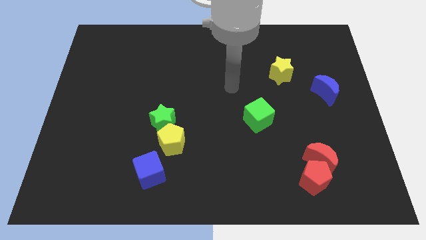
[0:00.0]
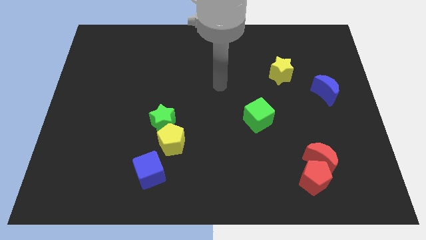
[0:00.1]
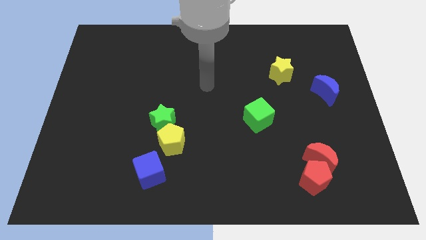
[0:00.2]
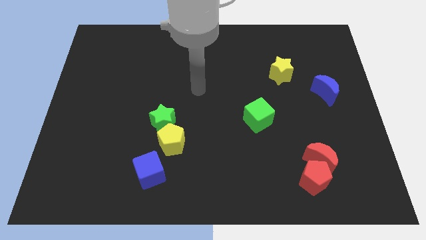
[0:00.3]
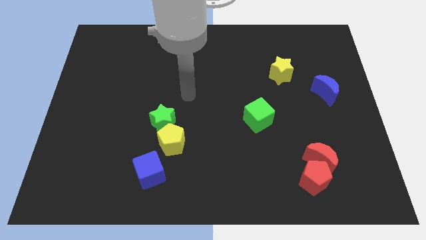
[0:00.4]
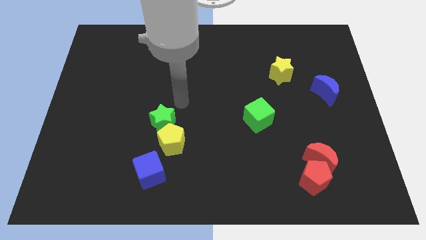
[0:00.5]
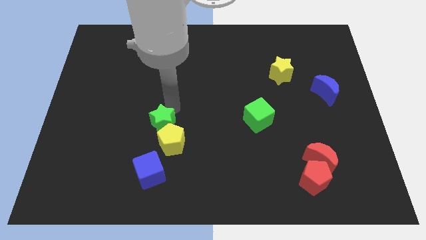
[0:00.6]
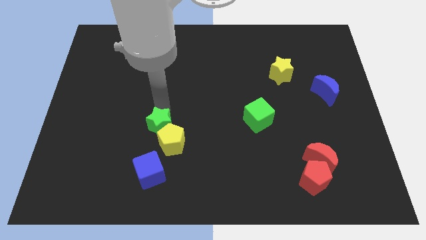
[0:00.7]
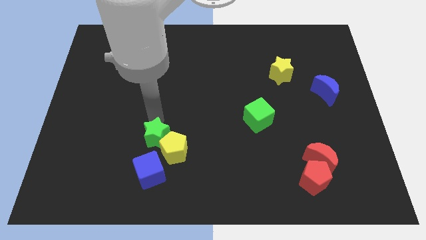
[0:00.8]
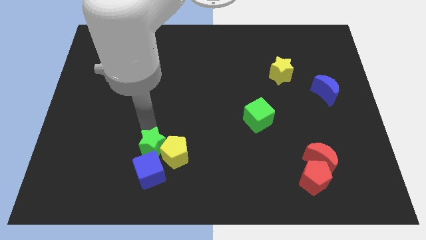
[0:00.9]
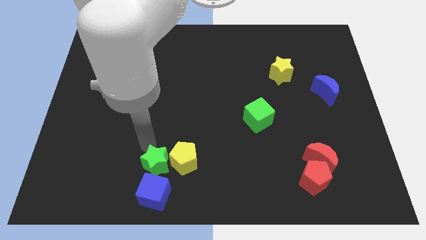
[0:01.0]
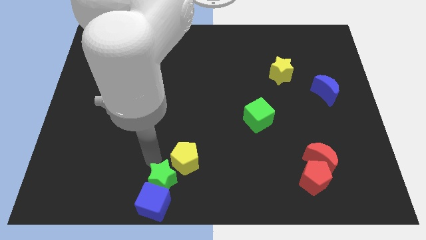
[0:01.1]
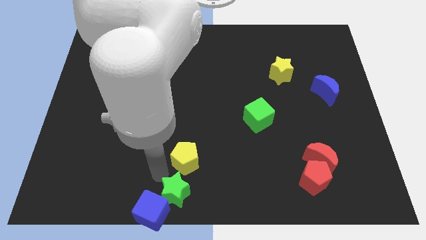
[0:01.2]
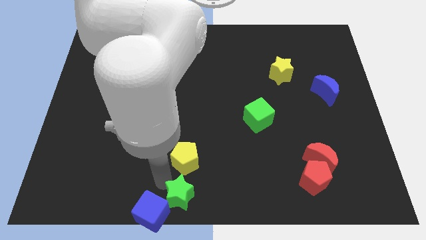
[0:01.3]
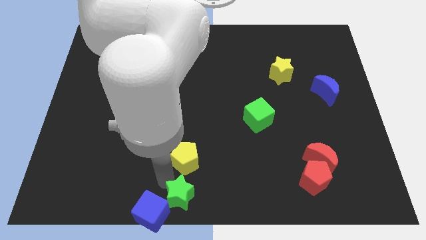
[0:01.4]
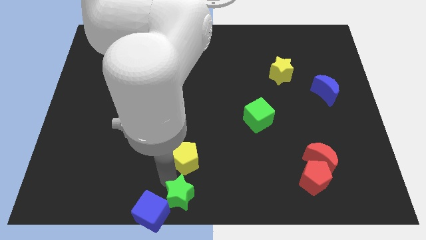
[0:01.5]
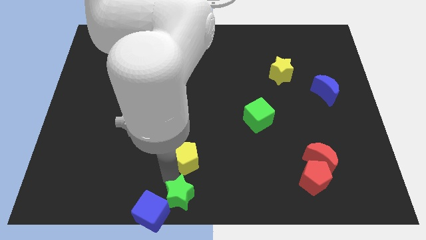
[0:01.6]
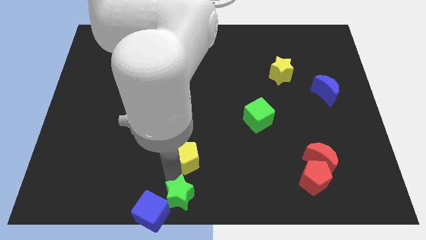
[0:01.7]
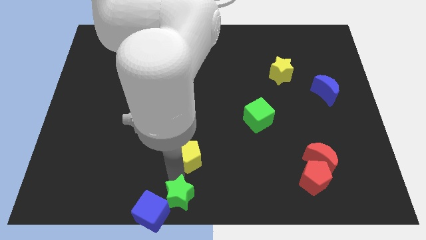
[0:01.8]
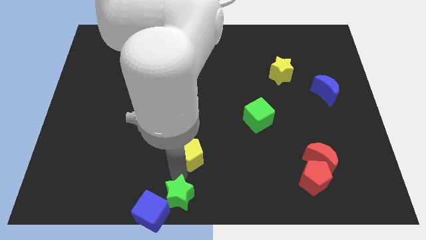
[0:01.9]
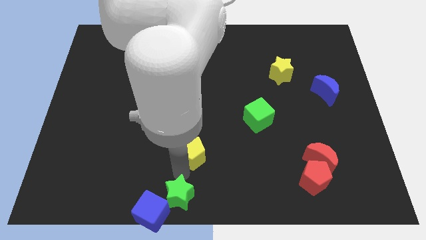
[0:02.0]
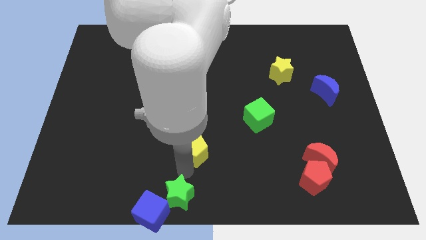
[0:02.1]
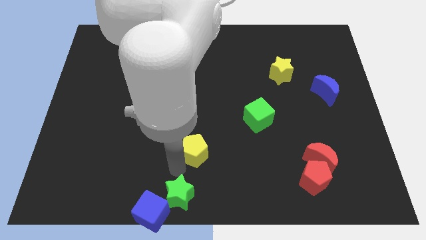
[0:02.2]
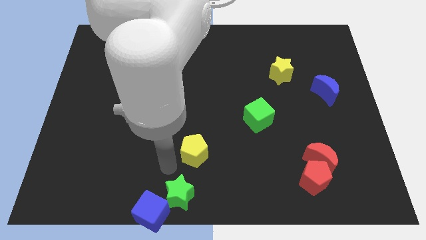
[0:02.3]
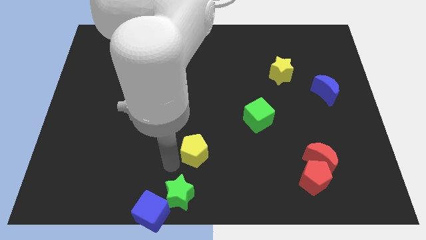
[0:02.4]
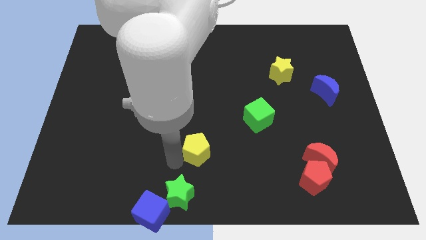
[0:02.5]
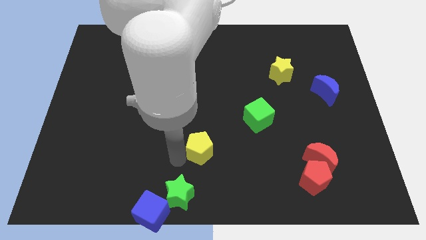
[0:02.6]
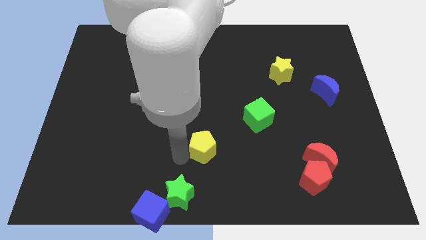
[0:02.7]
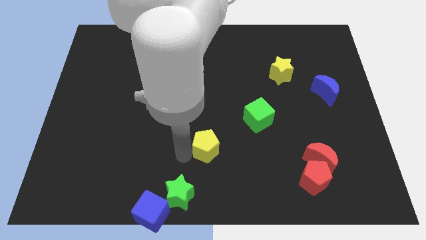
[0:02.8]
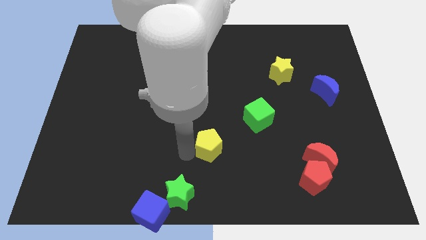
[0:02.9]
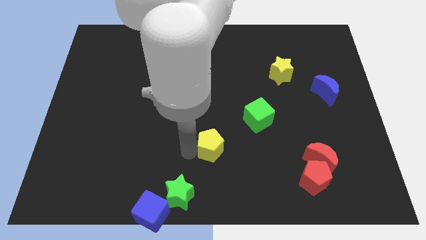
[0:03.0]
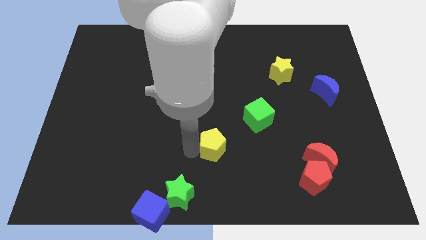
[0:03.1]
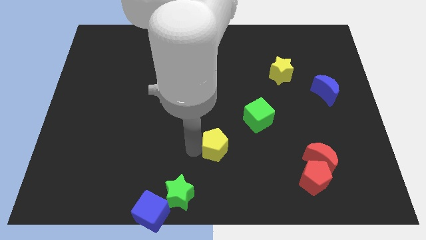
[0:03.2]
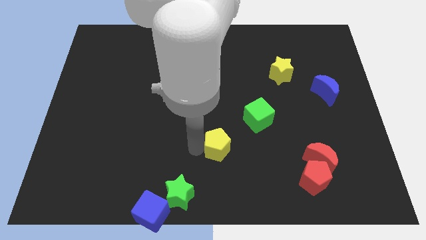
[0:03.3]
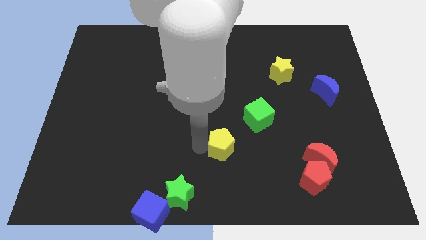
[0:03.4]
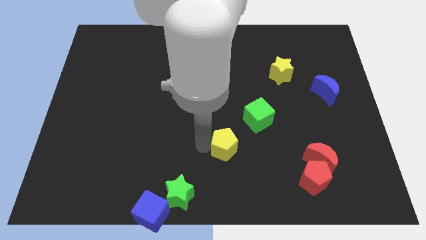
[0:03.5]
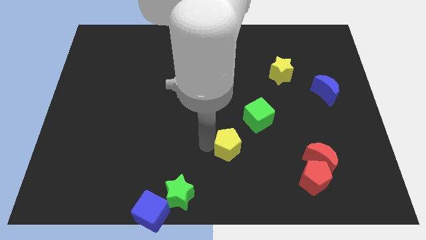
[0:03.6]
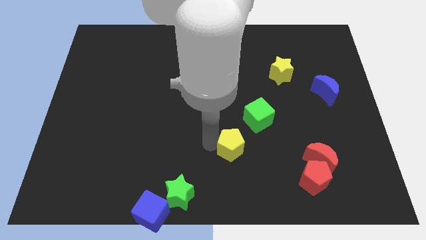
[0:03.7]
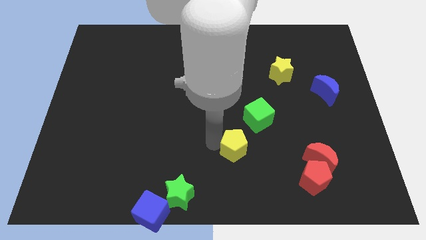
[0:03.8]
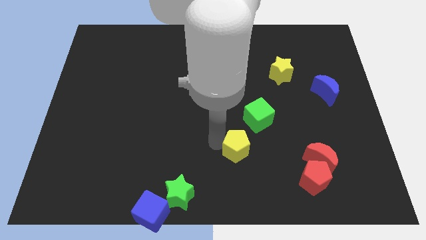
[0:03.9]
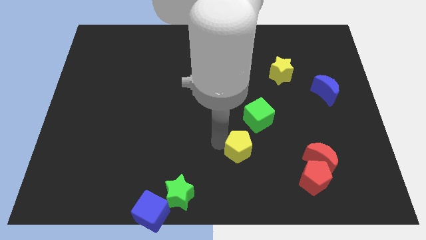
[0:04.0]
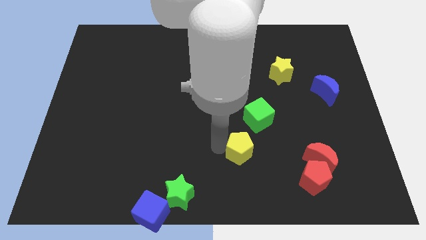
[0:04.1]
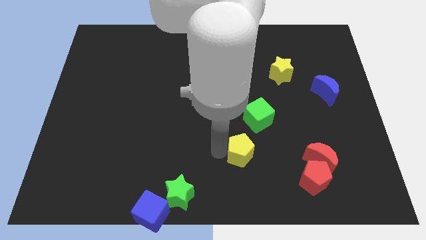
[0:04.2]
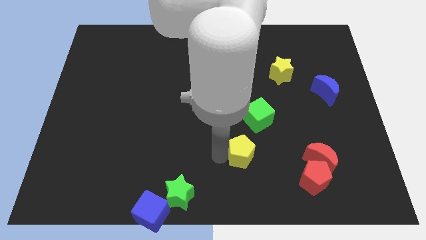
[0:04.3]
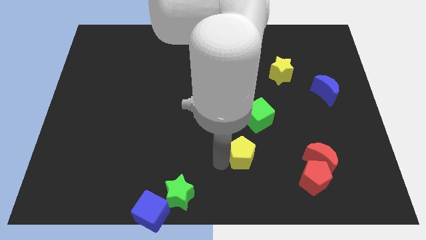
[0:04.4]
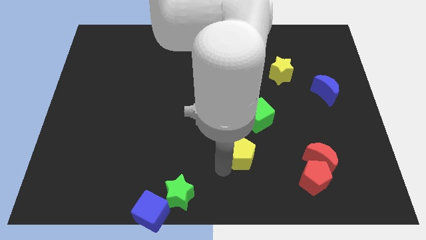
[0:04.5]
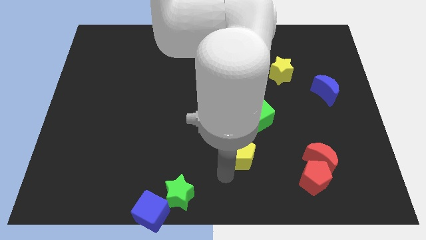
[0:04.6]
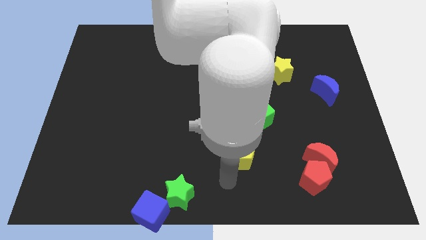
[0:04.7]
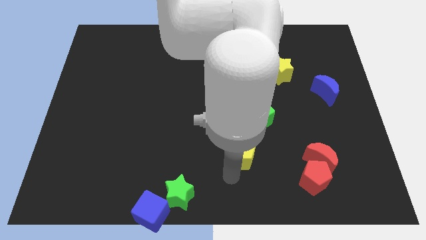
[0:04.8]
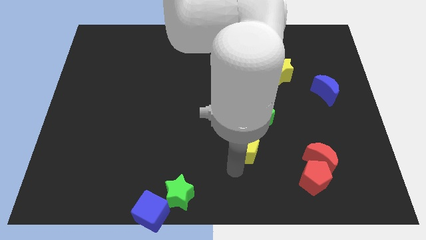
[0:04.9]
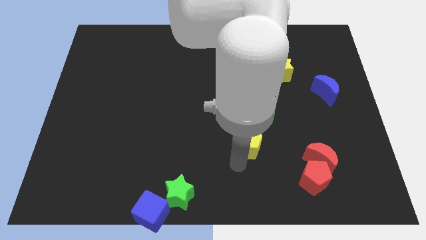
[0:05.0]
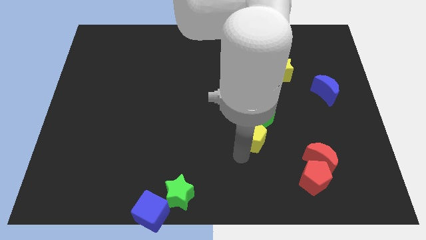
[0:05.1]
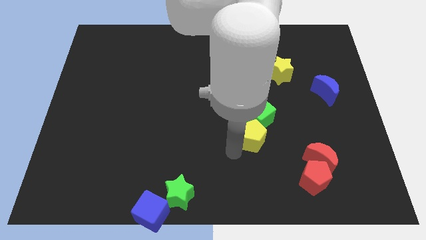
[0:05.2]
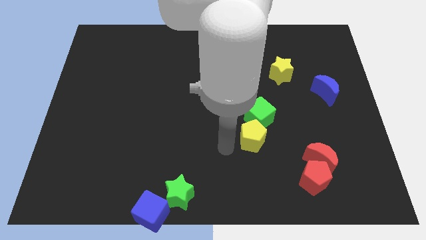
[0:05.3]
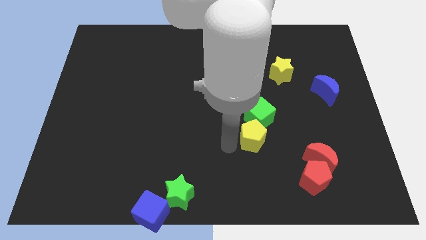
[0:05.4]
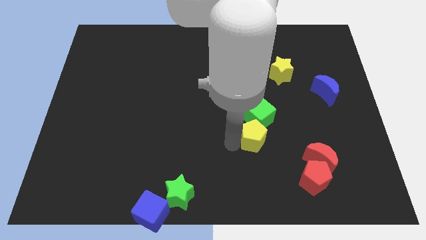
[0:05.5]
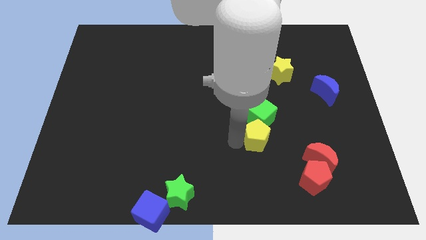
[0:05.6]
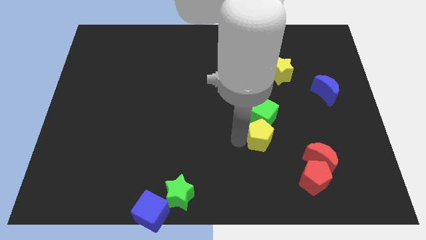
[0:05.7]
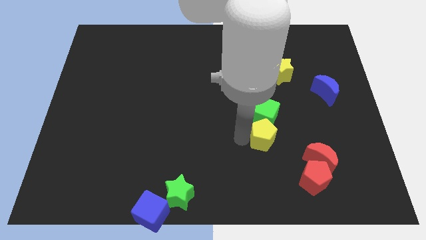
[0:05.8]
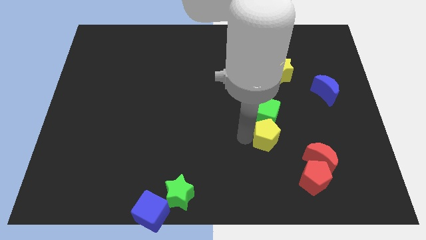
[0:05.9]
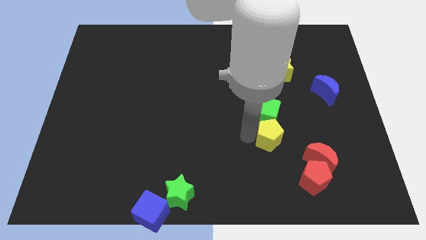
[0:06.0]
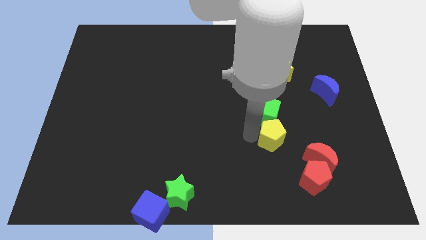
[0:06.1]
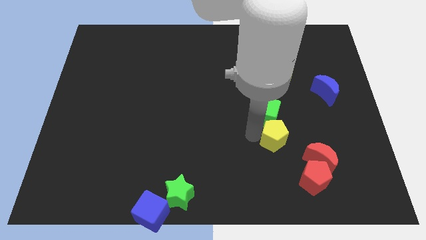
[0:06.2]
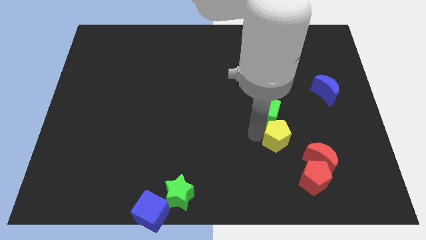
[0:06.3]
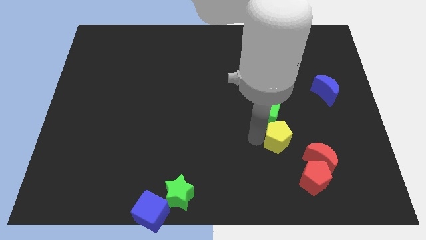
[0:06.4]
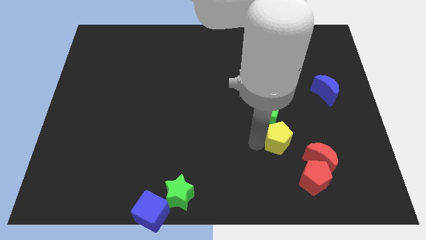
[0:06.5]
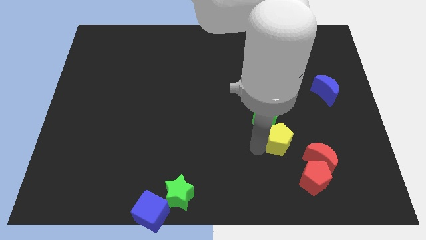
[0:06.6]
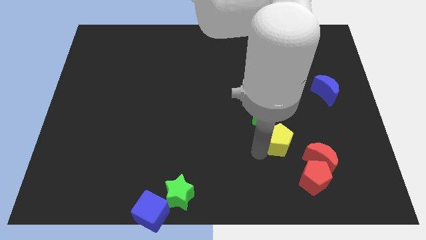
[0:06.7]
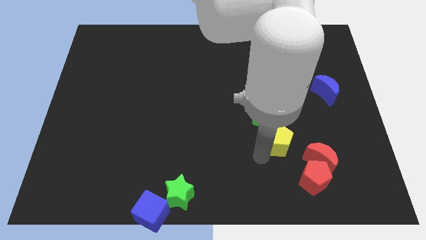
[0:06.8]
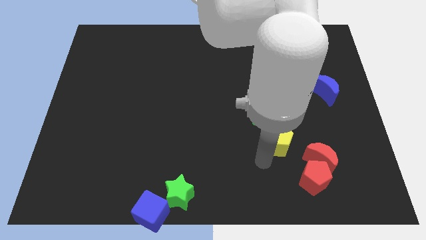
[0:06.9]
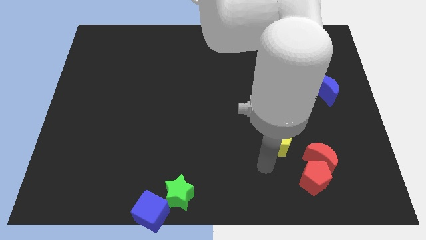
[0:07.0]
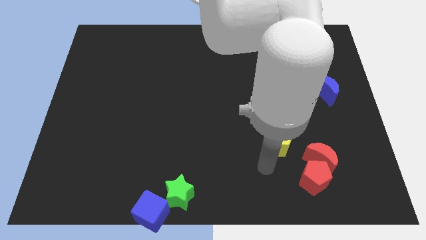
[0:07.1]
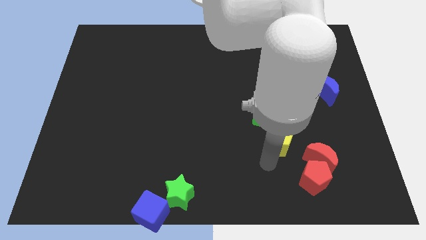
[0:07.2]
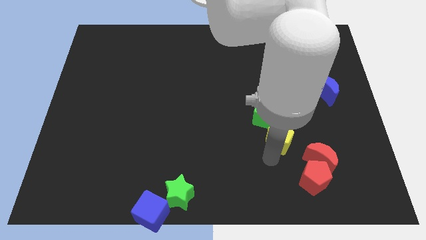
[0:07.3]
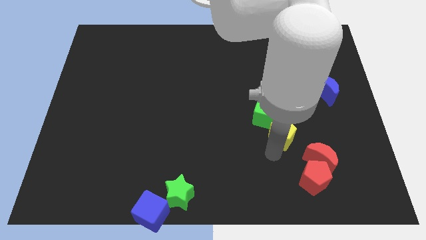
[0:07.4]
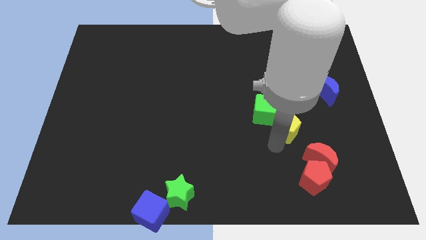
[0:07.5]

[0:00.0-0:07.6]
put the yellow pentagon to the right side of the green cube
